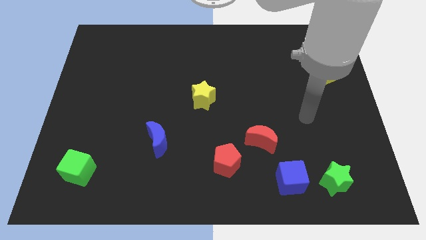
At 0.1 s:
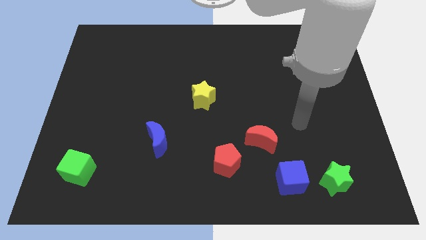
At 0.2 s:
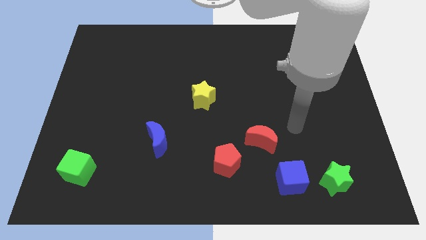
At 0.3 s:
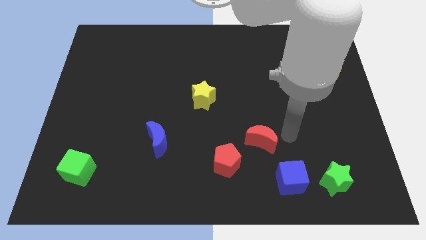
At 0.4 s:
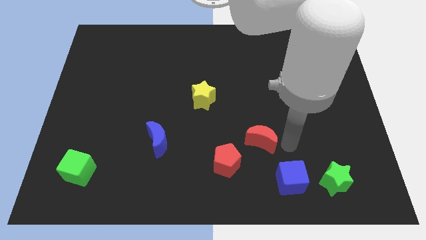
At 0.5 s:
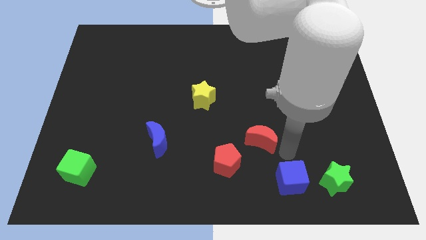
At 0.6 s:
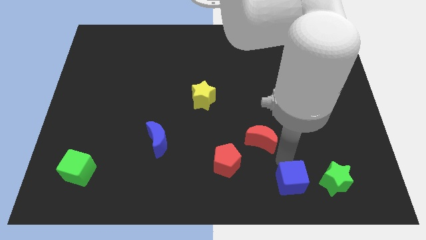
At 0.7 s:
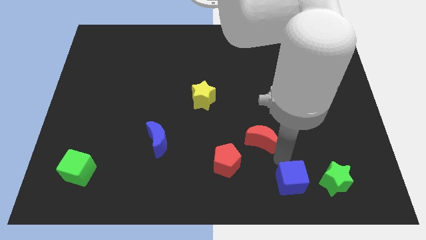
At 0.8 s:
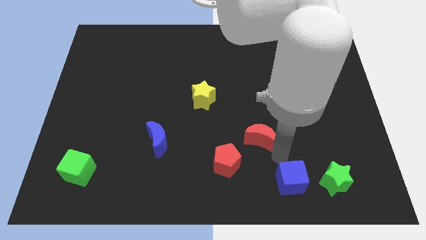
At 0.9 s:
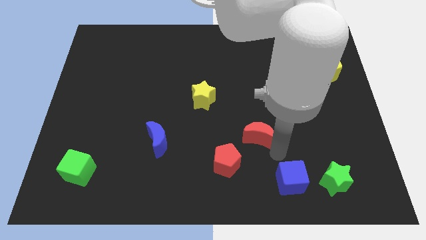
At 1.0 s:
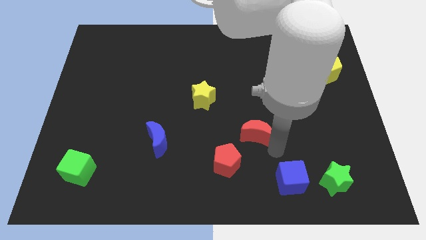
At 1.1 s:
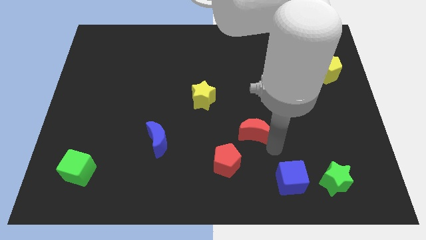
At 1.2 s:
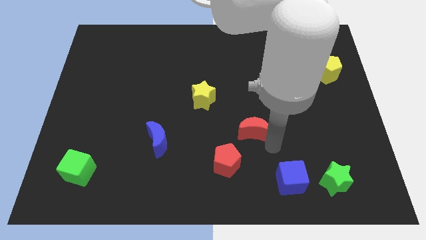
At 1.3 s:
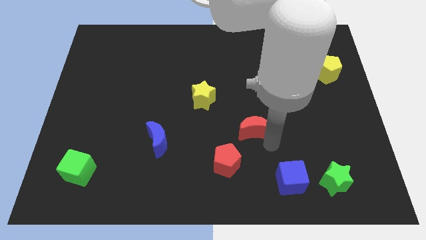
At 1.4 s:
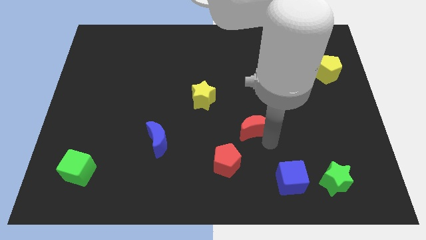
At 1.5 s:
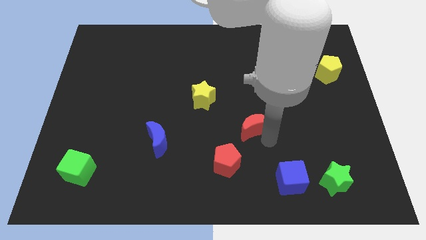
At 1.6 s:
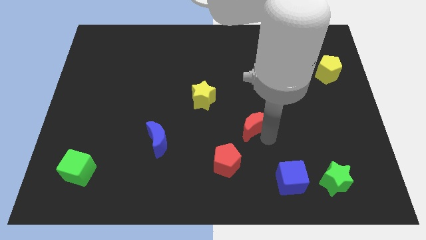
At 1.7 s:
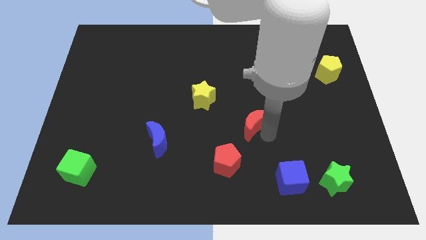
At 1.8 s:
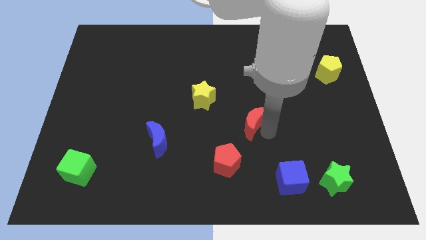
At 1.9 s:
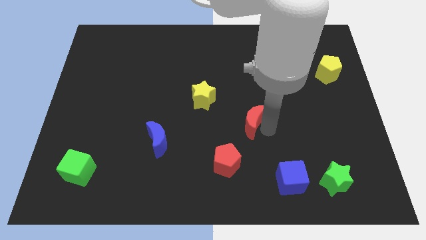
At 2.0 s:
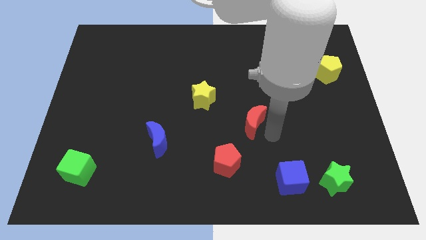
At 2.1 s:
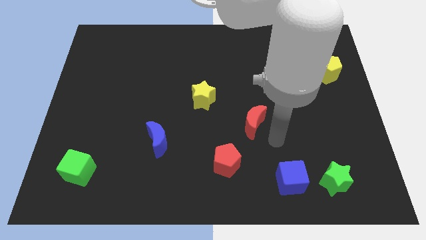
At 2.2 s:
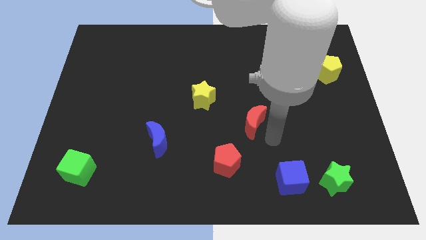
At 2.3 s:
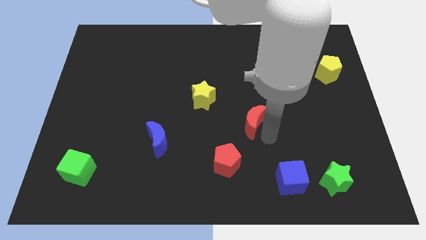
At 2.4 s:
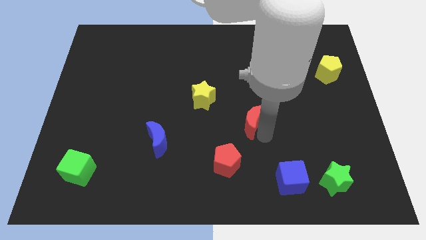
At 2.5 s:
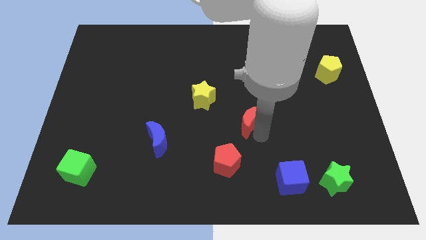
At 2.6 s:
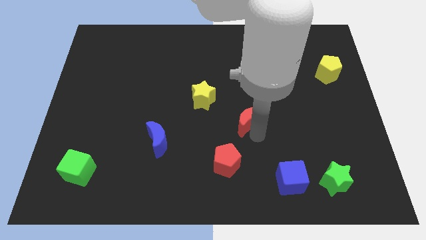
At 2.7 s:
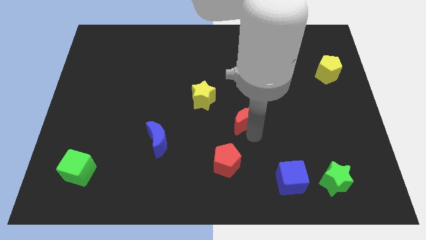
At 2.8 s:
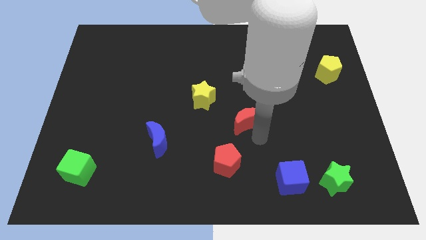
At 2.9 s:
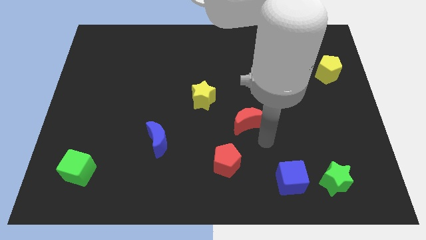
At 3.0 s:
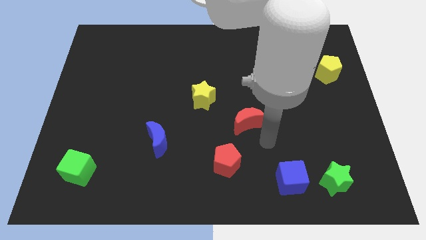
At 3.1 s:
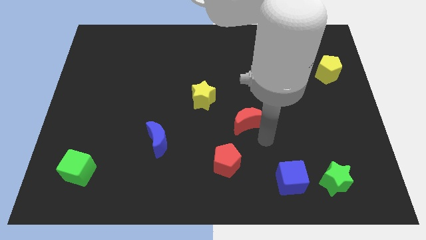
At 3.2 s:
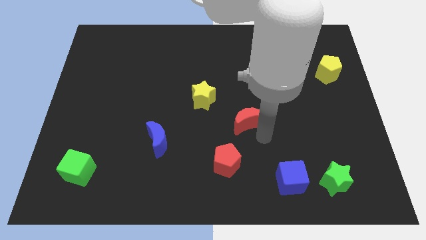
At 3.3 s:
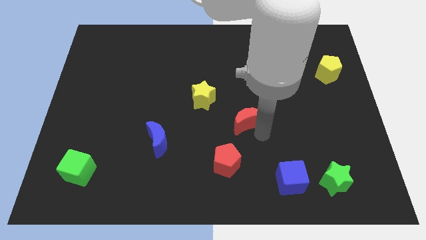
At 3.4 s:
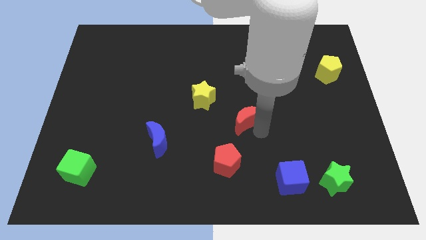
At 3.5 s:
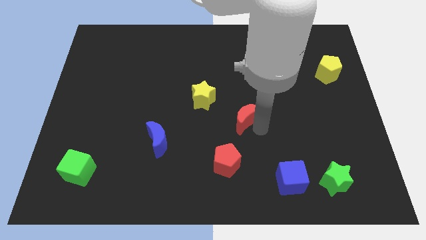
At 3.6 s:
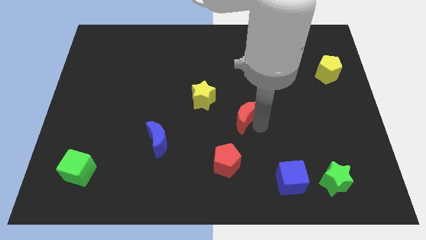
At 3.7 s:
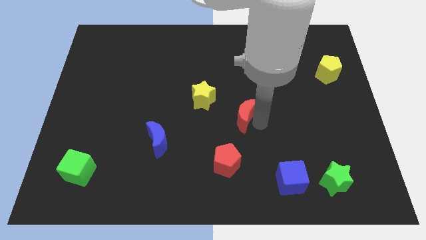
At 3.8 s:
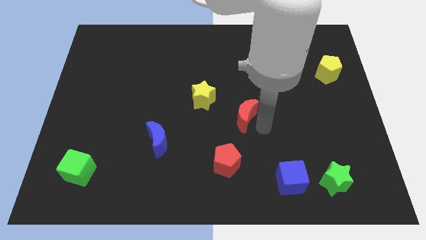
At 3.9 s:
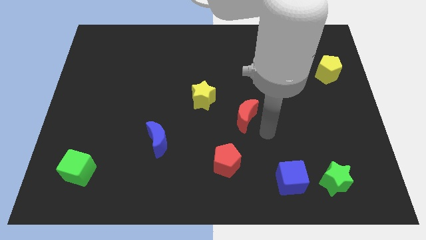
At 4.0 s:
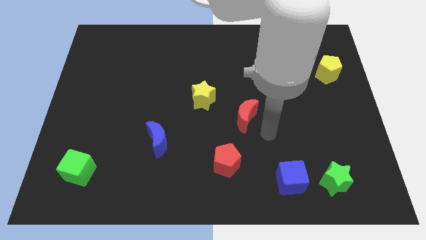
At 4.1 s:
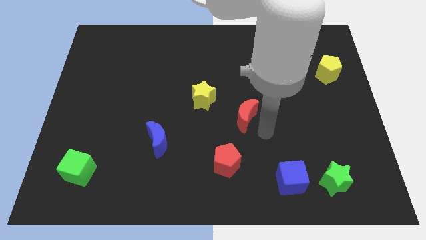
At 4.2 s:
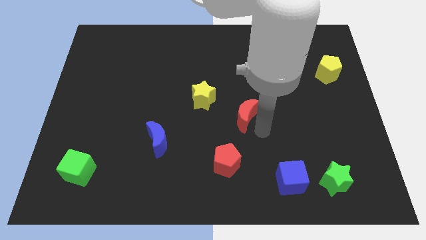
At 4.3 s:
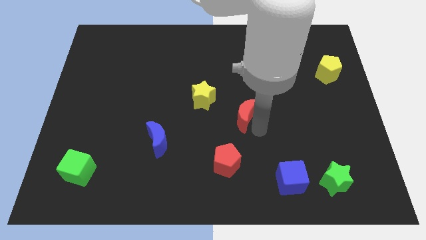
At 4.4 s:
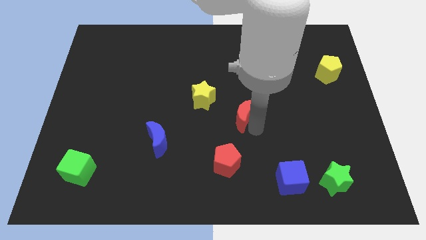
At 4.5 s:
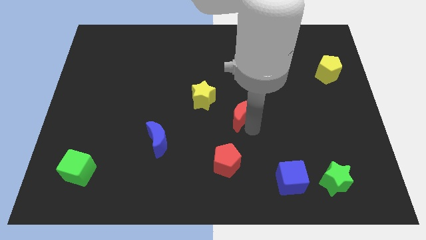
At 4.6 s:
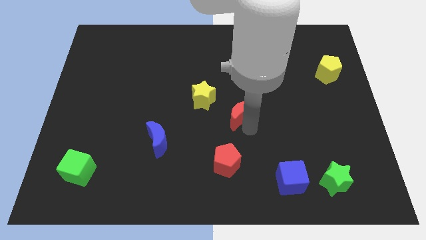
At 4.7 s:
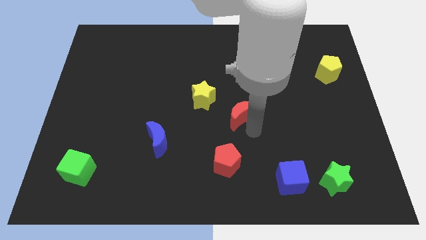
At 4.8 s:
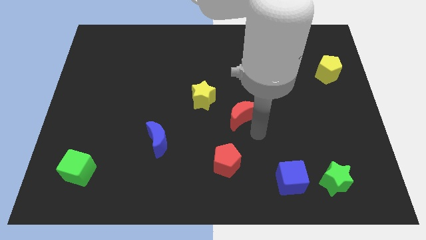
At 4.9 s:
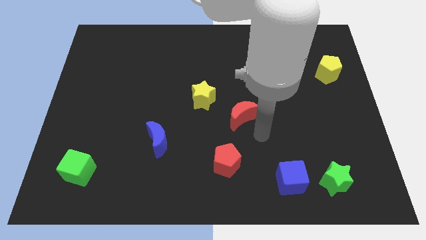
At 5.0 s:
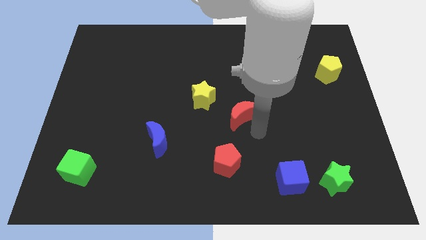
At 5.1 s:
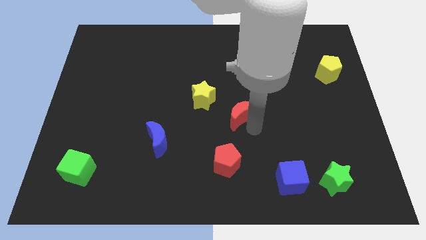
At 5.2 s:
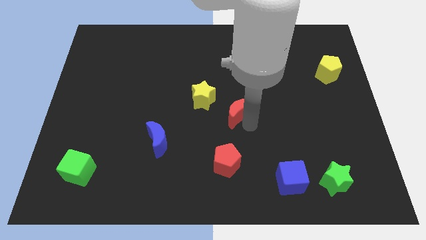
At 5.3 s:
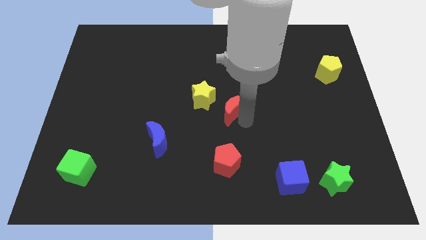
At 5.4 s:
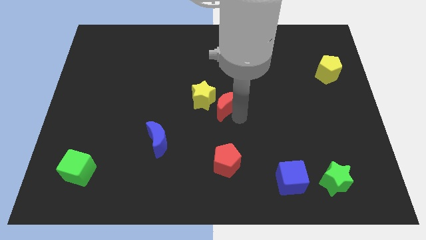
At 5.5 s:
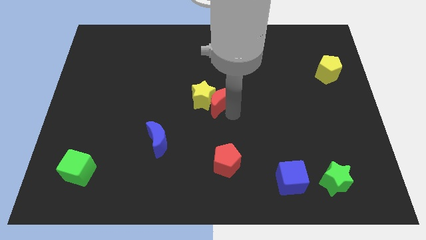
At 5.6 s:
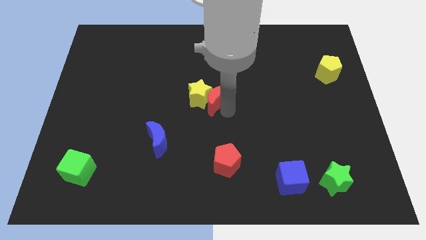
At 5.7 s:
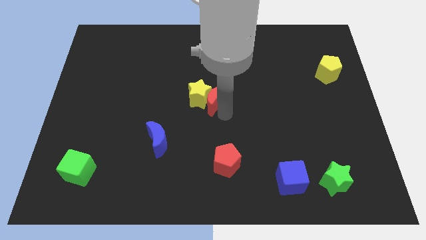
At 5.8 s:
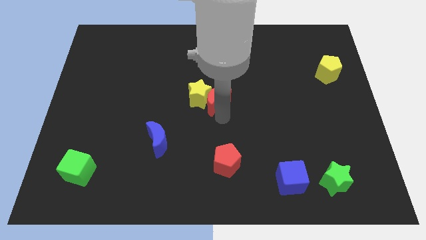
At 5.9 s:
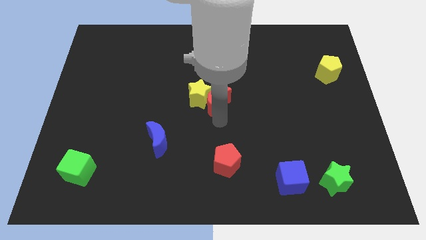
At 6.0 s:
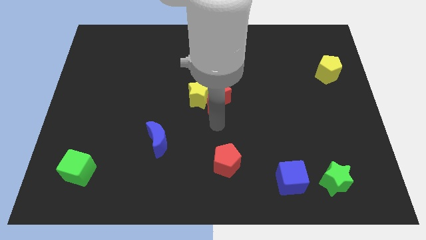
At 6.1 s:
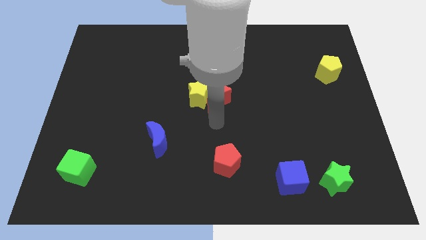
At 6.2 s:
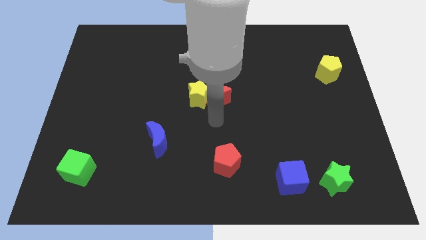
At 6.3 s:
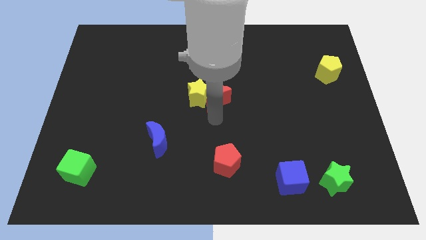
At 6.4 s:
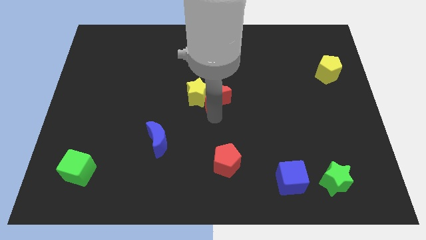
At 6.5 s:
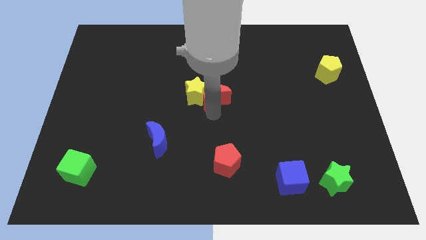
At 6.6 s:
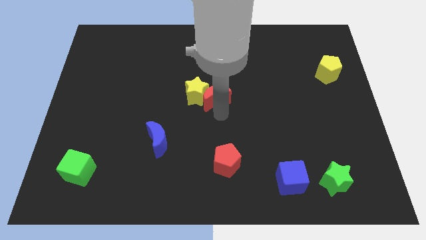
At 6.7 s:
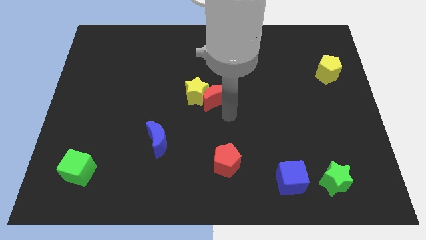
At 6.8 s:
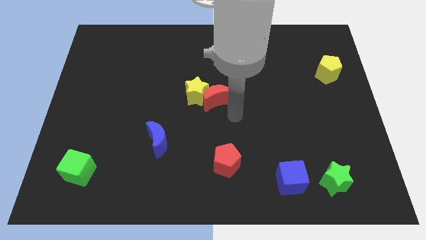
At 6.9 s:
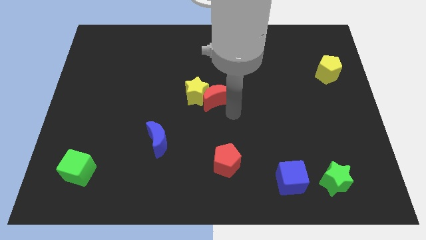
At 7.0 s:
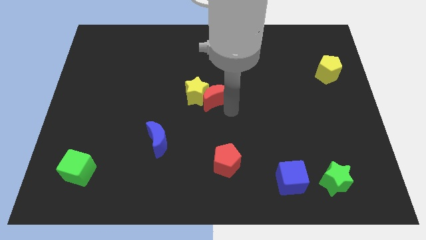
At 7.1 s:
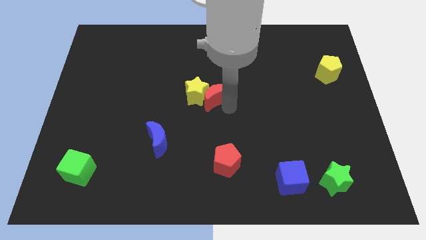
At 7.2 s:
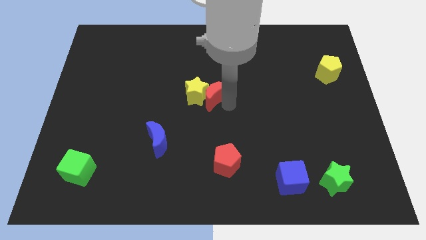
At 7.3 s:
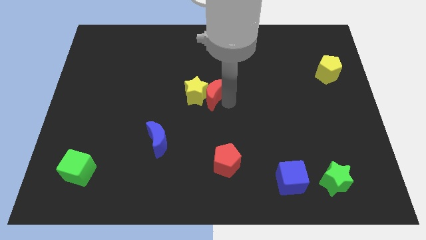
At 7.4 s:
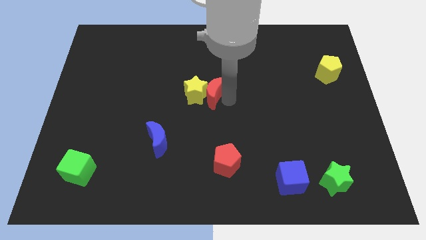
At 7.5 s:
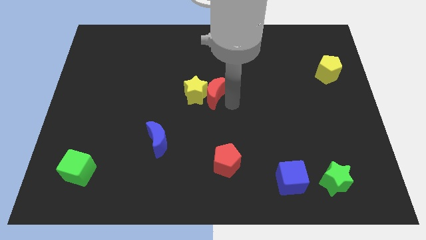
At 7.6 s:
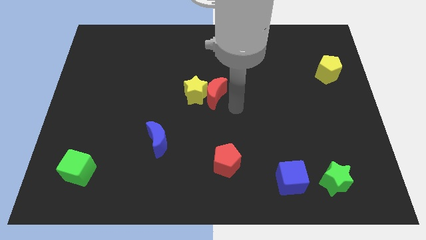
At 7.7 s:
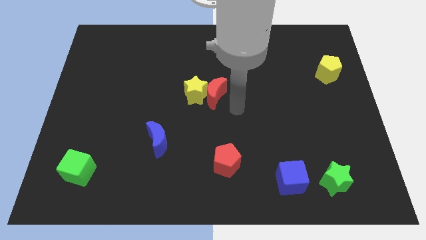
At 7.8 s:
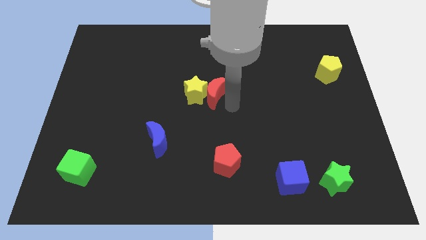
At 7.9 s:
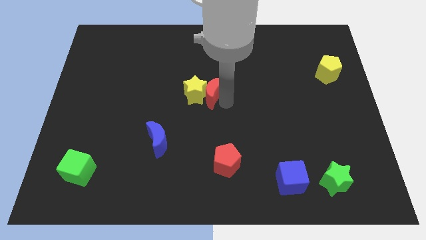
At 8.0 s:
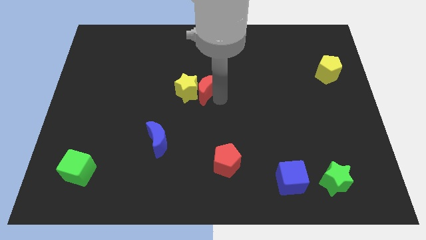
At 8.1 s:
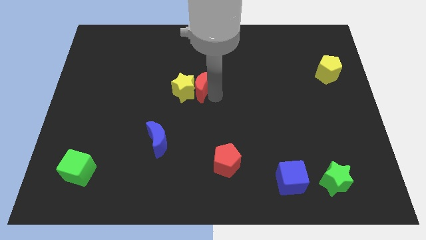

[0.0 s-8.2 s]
push the red moon up and then to the left
